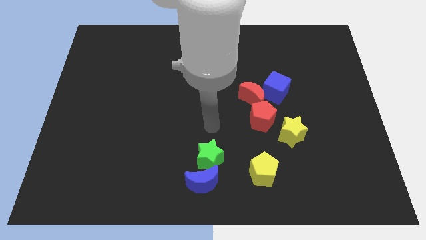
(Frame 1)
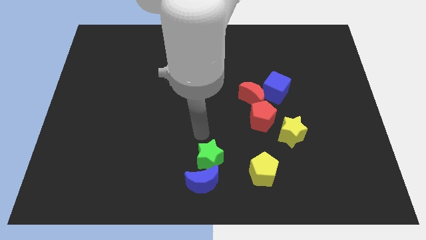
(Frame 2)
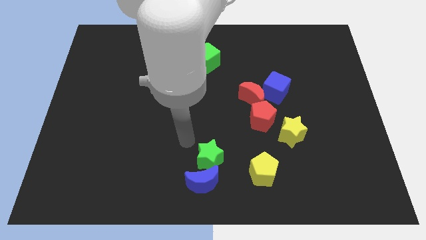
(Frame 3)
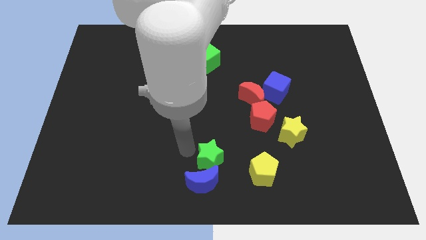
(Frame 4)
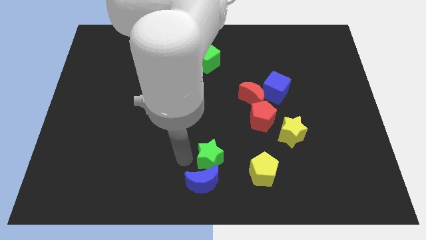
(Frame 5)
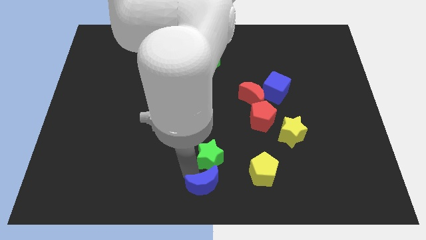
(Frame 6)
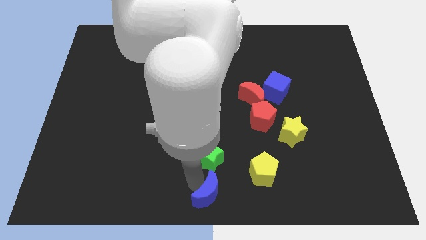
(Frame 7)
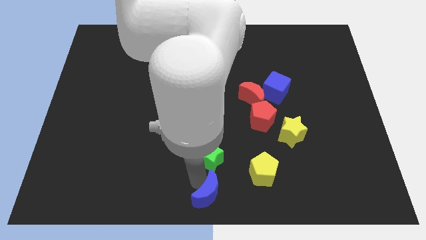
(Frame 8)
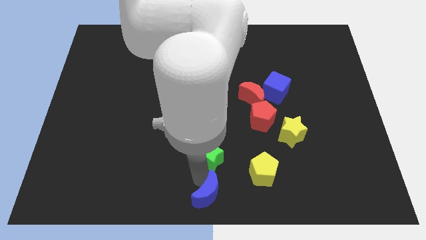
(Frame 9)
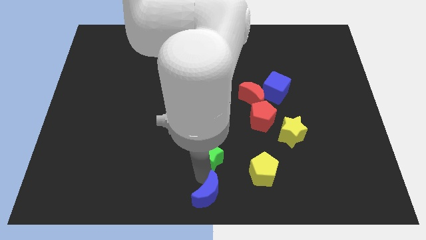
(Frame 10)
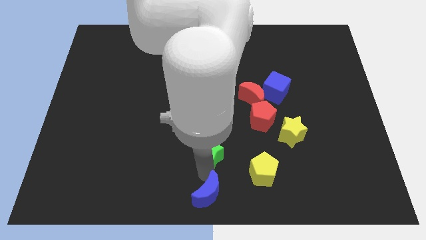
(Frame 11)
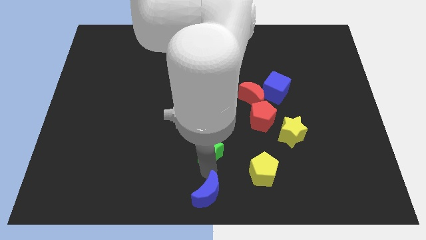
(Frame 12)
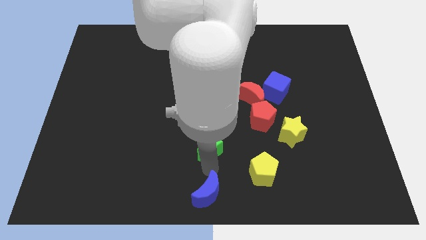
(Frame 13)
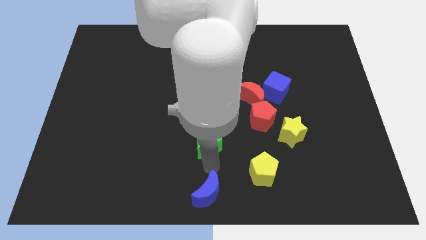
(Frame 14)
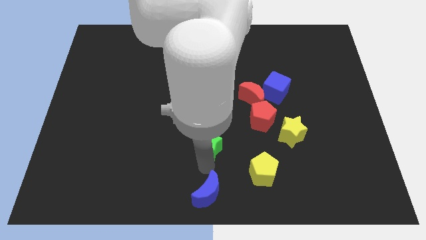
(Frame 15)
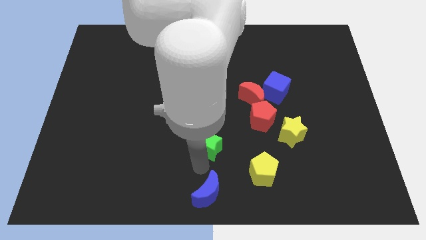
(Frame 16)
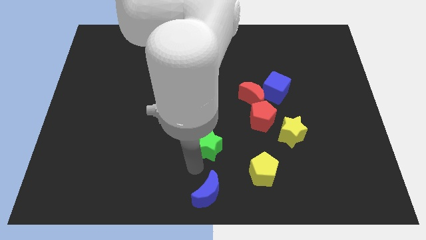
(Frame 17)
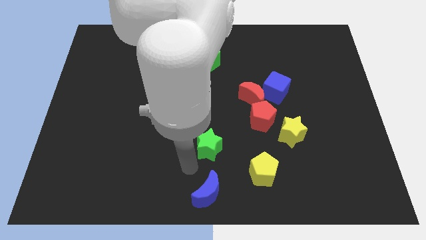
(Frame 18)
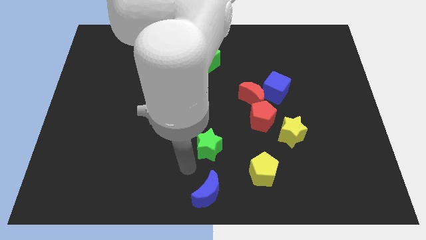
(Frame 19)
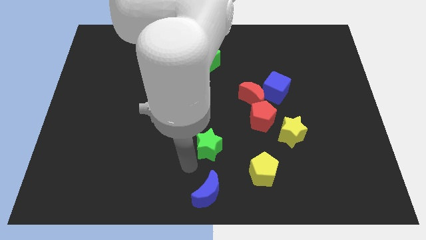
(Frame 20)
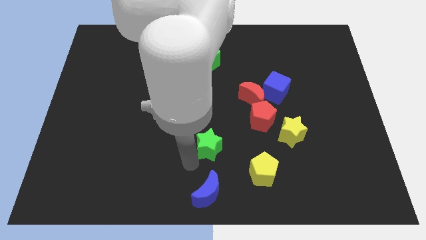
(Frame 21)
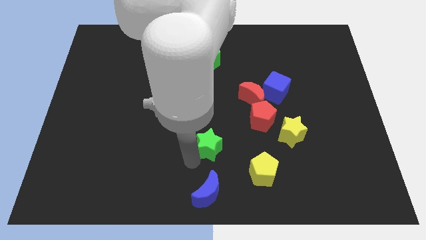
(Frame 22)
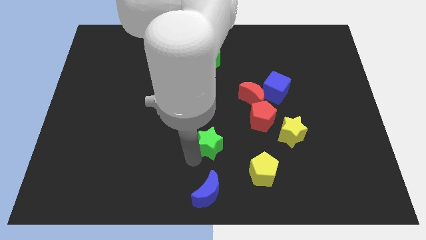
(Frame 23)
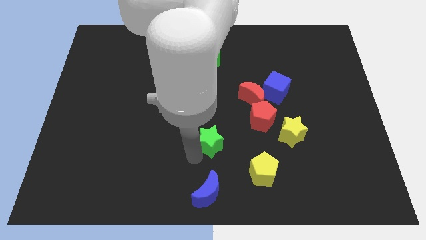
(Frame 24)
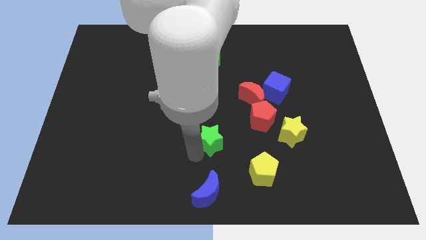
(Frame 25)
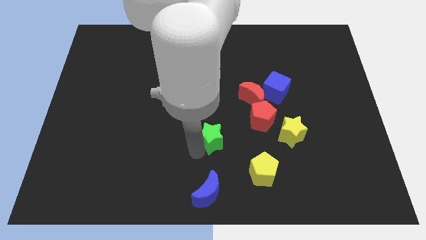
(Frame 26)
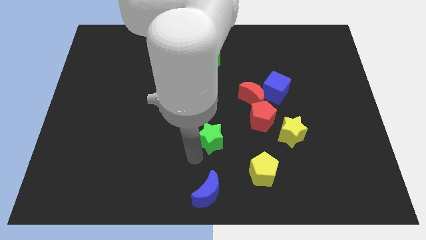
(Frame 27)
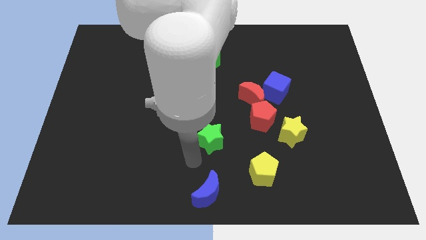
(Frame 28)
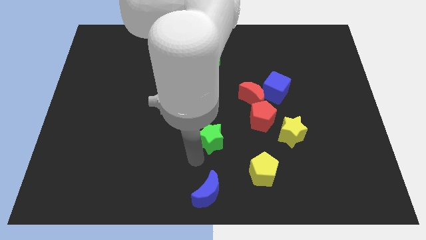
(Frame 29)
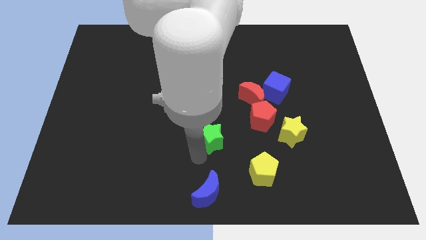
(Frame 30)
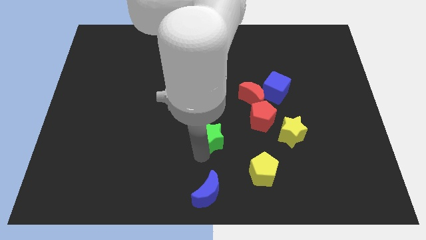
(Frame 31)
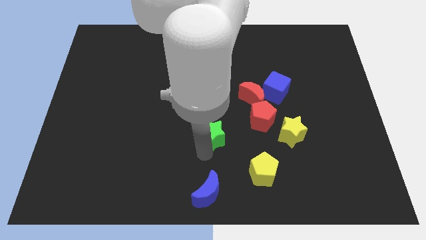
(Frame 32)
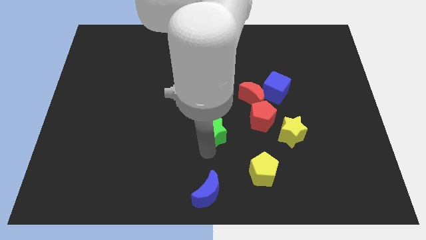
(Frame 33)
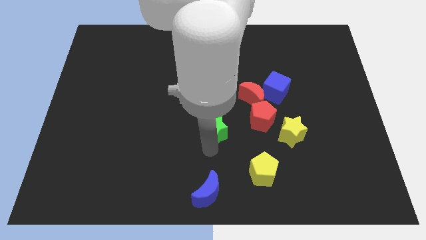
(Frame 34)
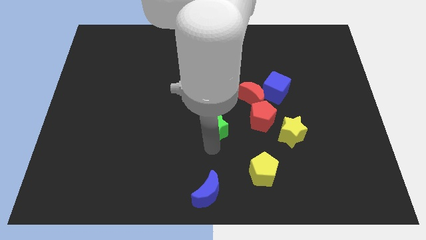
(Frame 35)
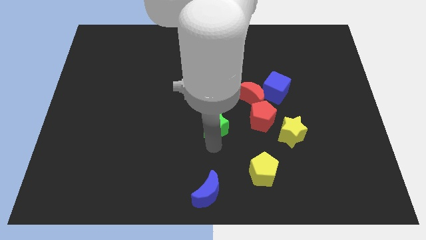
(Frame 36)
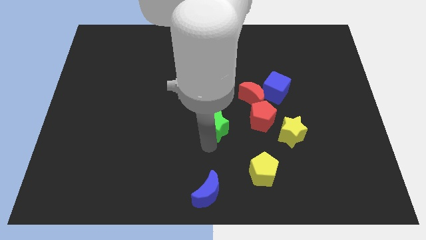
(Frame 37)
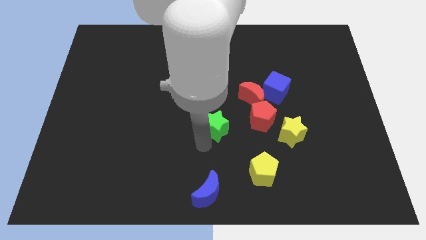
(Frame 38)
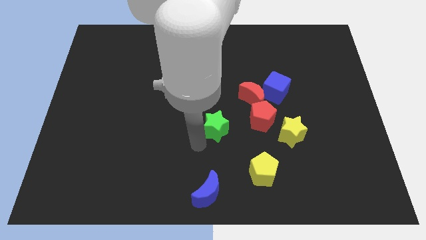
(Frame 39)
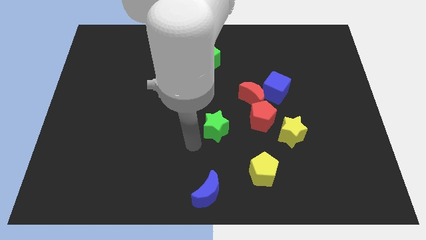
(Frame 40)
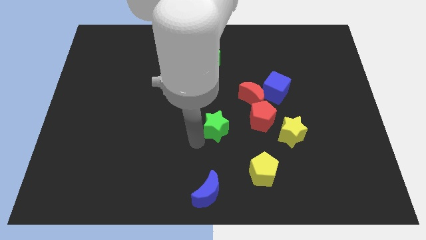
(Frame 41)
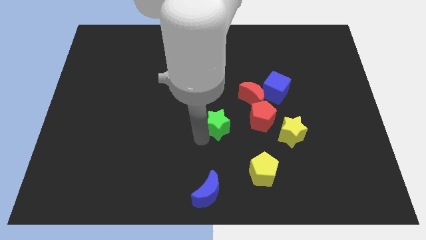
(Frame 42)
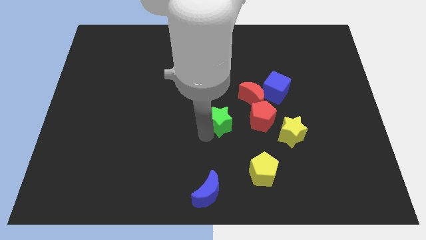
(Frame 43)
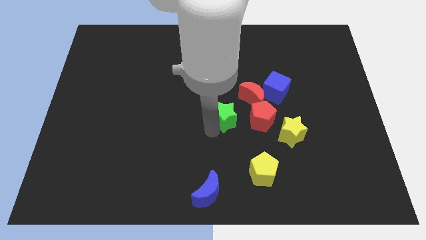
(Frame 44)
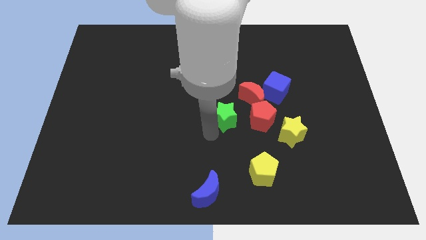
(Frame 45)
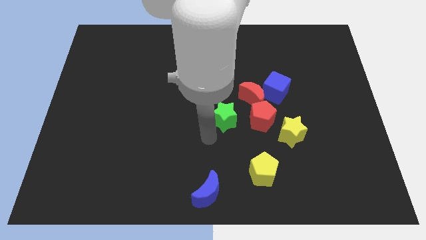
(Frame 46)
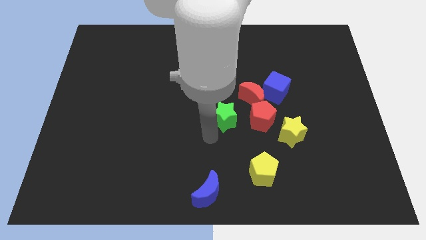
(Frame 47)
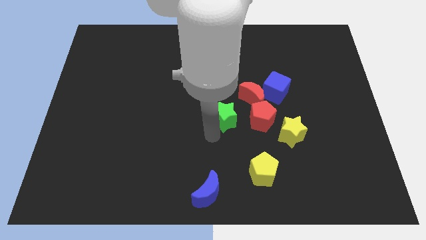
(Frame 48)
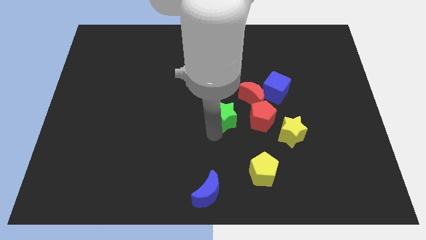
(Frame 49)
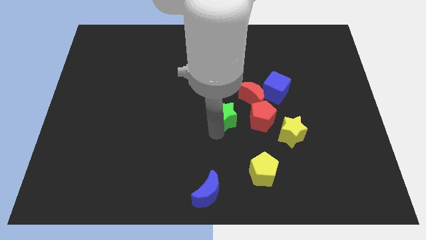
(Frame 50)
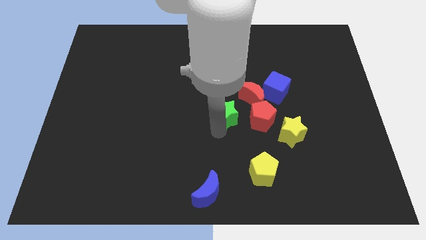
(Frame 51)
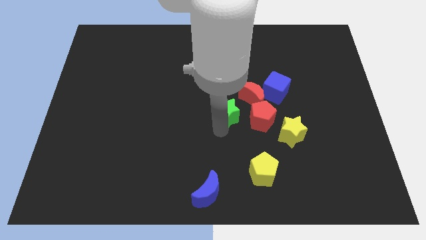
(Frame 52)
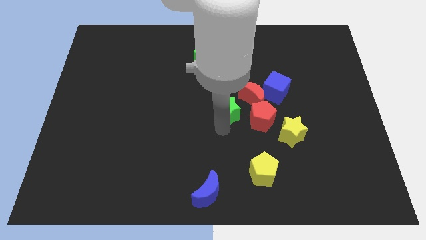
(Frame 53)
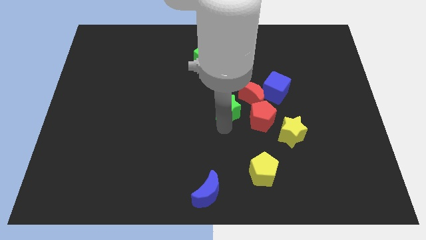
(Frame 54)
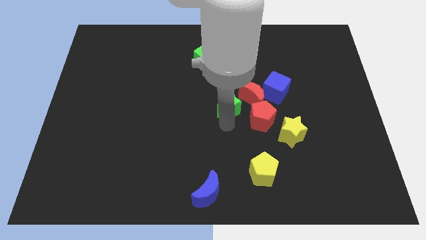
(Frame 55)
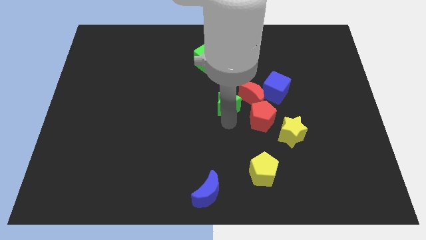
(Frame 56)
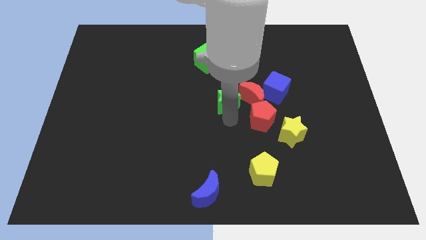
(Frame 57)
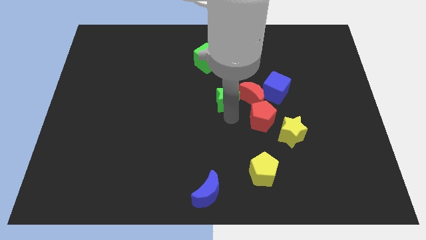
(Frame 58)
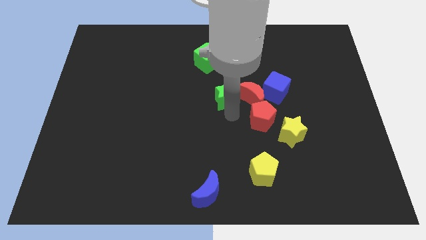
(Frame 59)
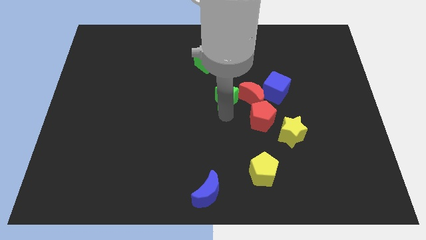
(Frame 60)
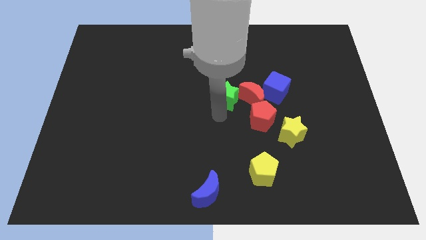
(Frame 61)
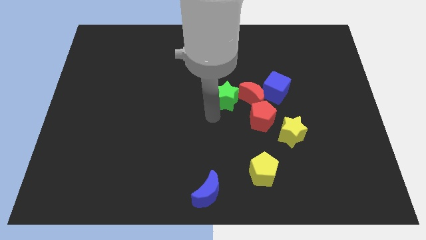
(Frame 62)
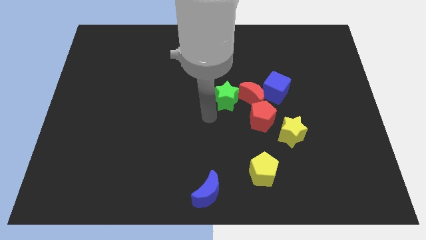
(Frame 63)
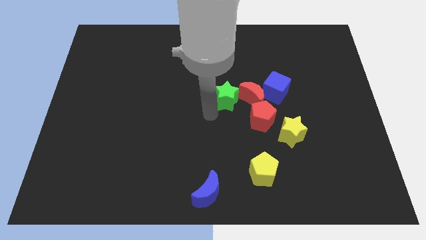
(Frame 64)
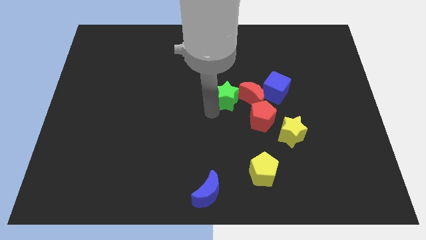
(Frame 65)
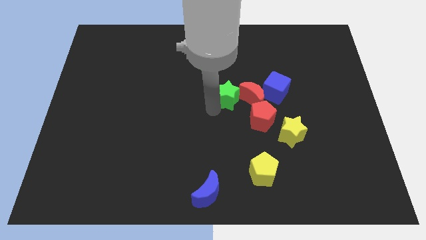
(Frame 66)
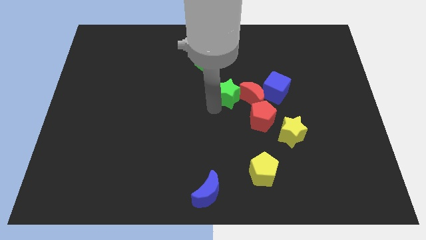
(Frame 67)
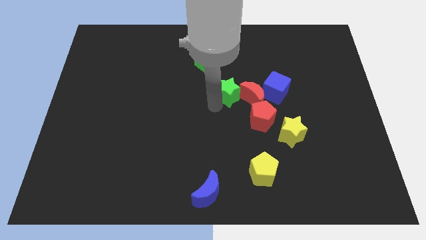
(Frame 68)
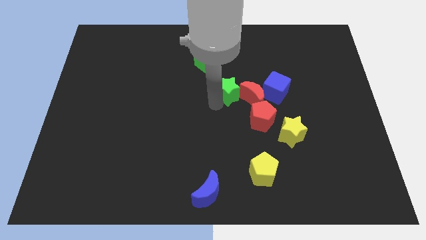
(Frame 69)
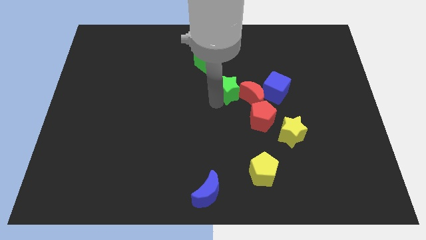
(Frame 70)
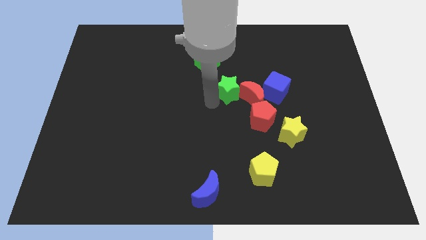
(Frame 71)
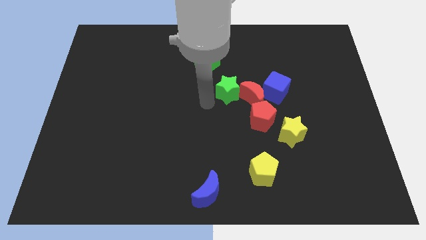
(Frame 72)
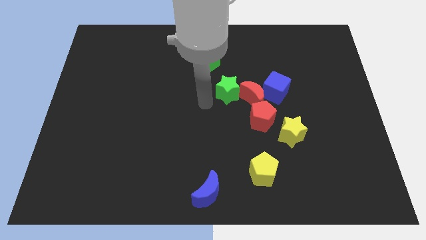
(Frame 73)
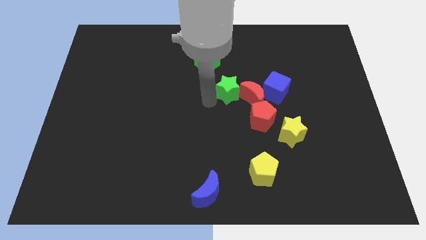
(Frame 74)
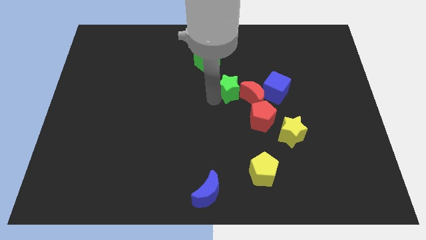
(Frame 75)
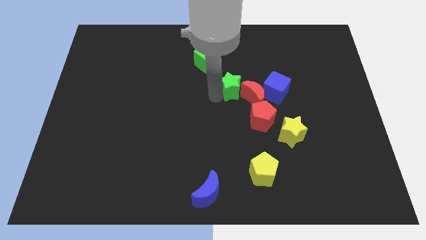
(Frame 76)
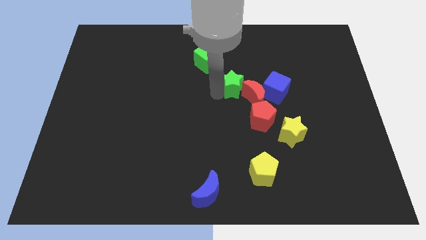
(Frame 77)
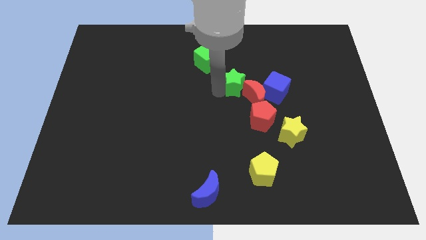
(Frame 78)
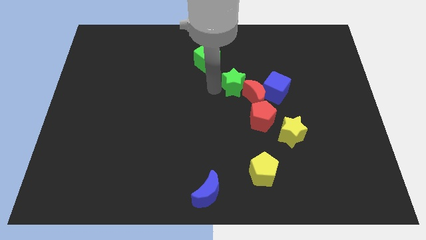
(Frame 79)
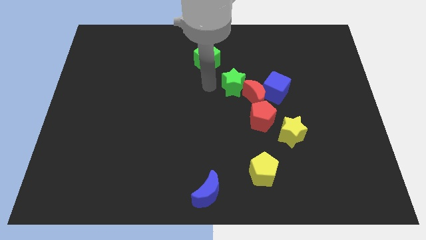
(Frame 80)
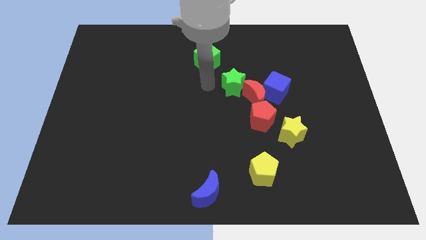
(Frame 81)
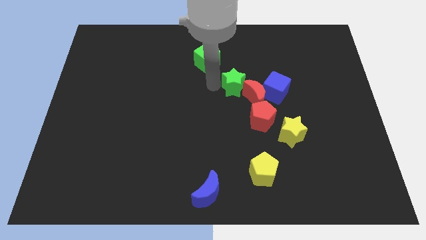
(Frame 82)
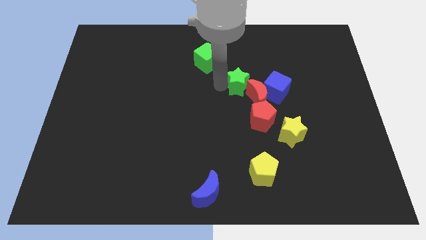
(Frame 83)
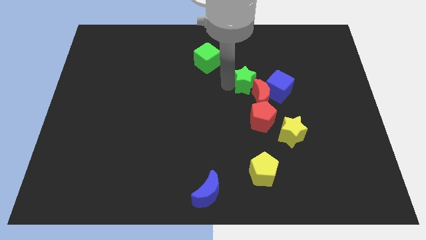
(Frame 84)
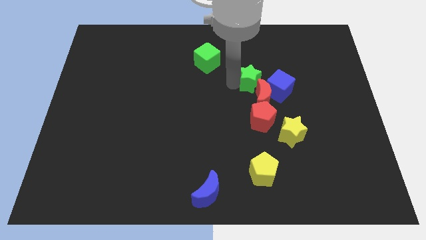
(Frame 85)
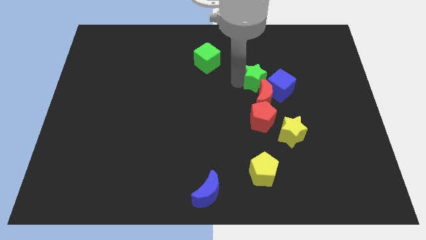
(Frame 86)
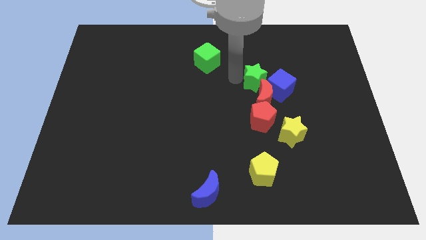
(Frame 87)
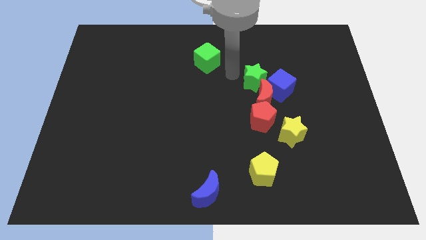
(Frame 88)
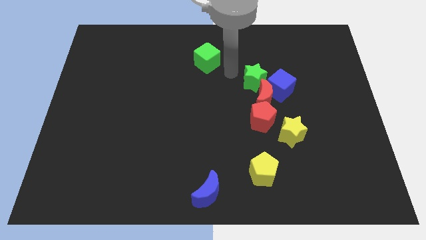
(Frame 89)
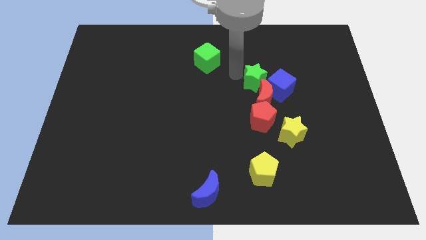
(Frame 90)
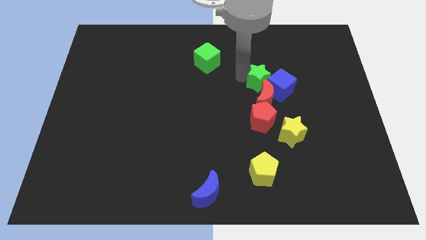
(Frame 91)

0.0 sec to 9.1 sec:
move the green star close to the blue cube
